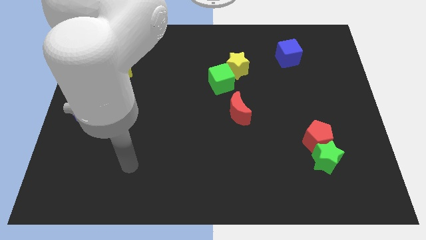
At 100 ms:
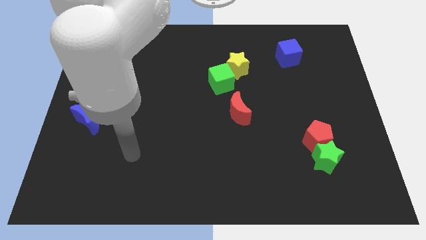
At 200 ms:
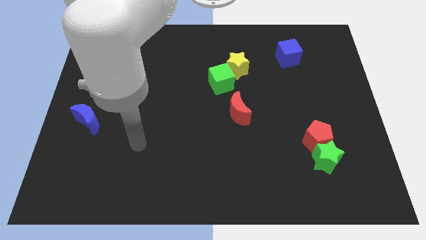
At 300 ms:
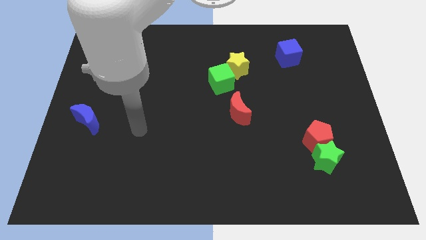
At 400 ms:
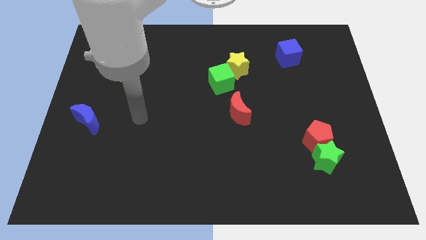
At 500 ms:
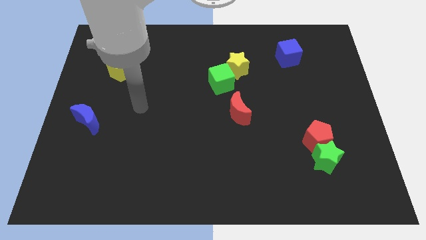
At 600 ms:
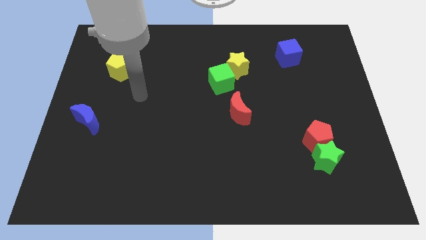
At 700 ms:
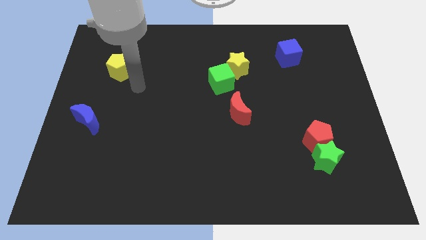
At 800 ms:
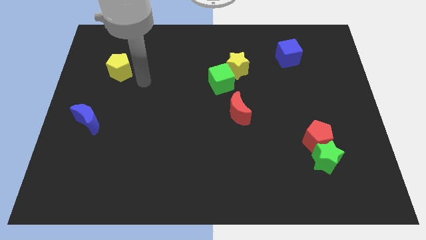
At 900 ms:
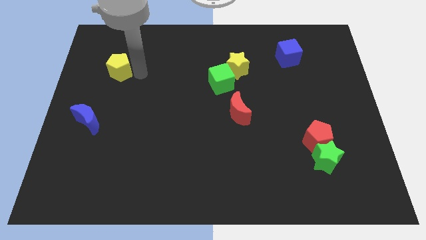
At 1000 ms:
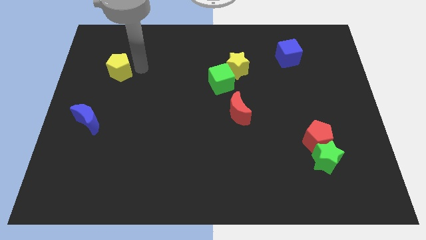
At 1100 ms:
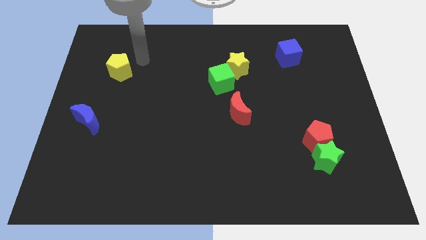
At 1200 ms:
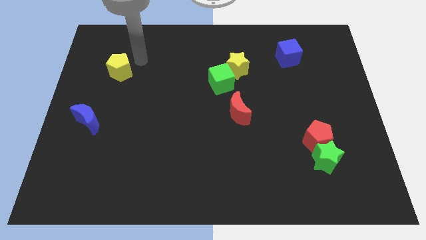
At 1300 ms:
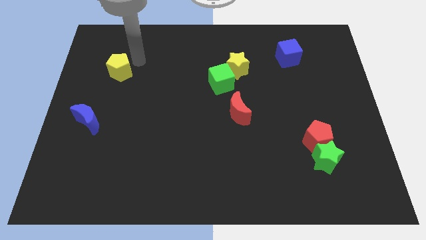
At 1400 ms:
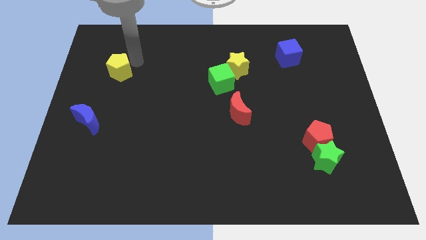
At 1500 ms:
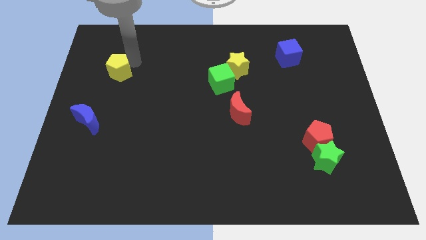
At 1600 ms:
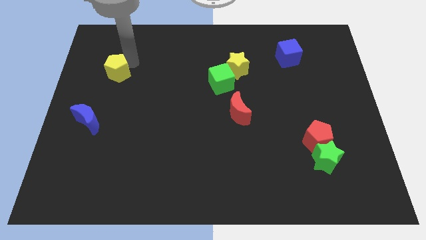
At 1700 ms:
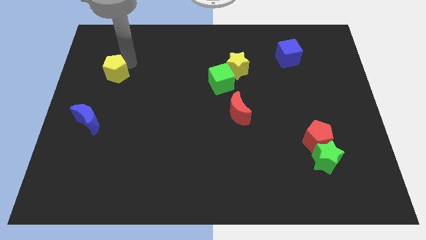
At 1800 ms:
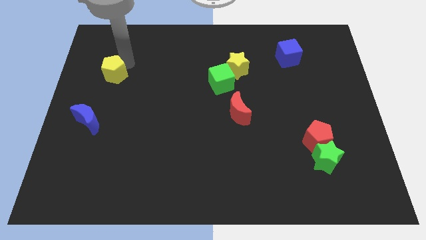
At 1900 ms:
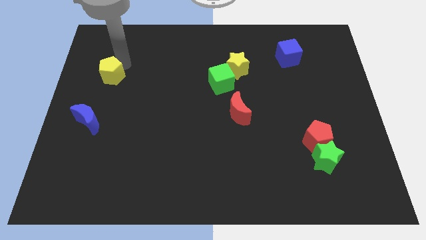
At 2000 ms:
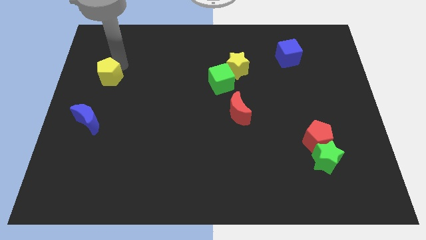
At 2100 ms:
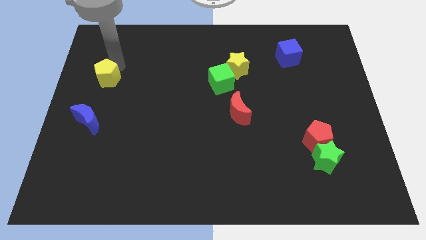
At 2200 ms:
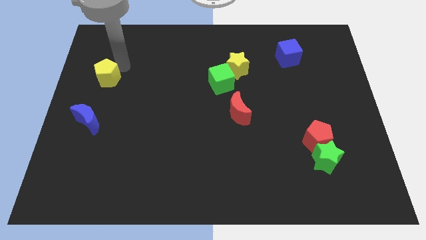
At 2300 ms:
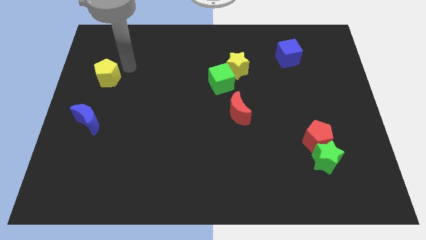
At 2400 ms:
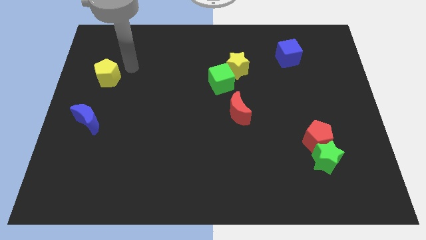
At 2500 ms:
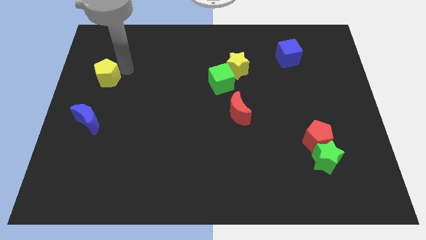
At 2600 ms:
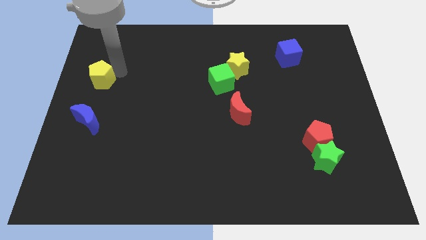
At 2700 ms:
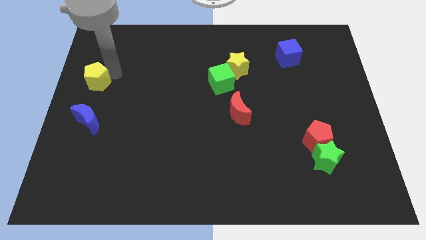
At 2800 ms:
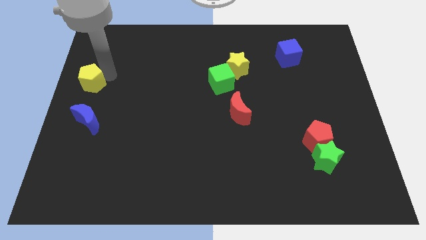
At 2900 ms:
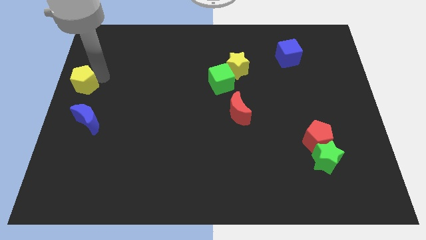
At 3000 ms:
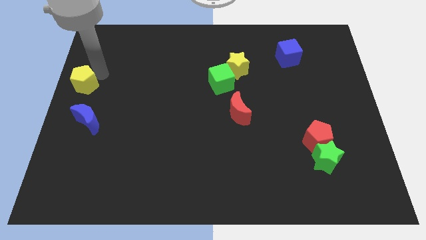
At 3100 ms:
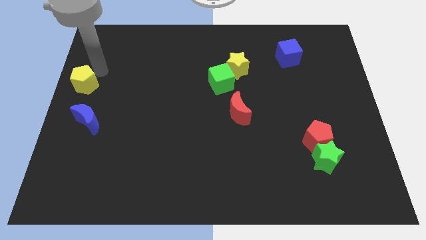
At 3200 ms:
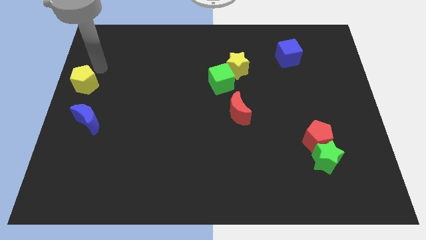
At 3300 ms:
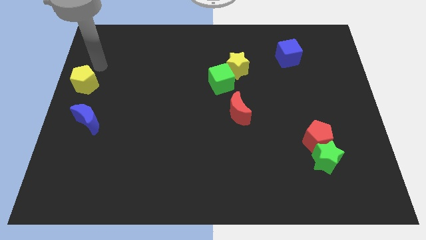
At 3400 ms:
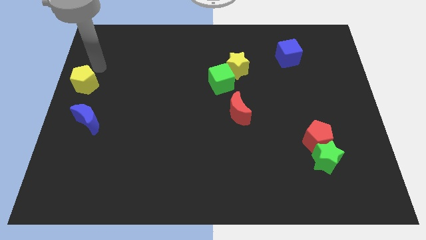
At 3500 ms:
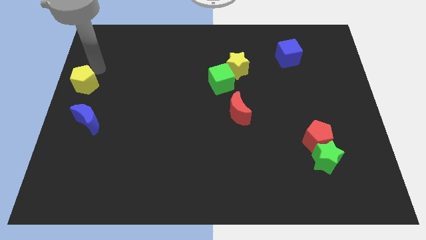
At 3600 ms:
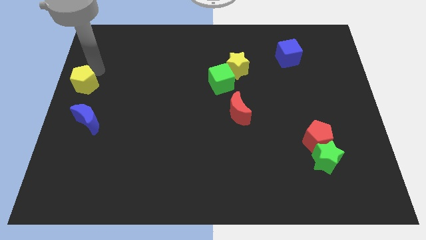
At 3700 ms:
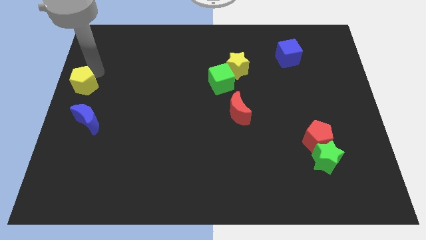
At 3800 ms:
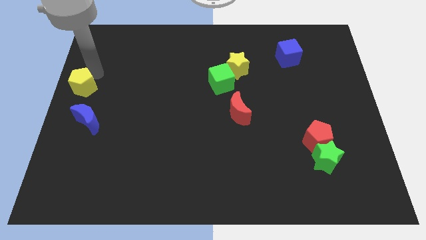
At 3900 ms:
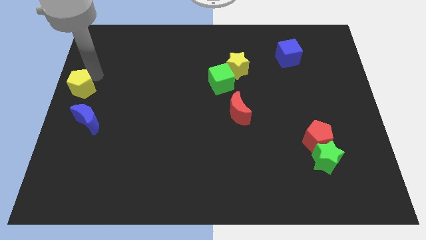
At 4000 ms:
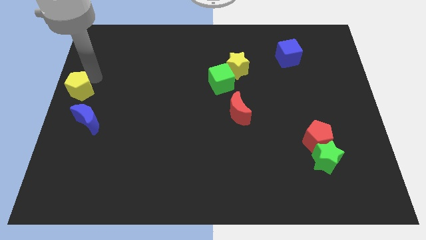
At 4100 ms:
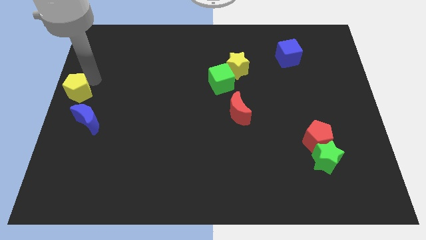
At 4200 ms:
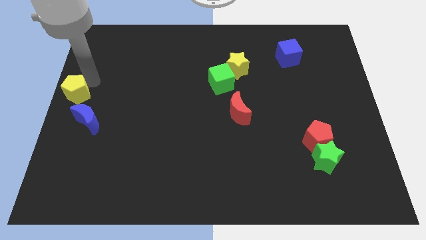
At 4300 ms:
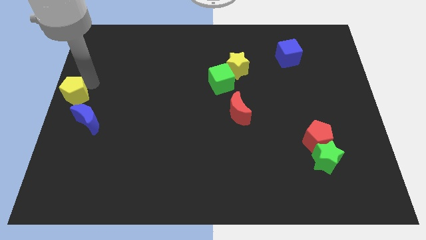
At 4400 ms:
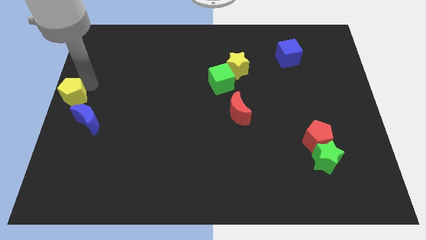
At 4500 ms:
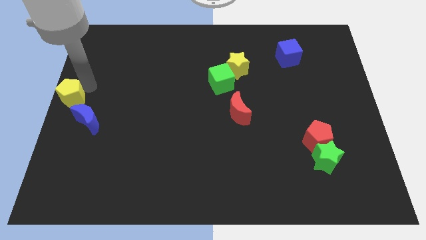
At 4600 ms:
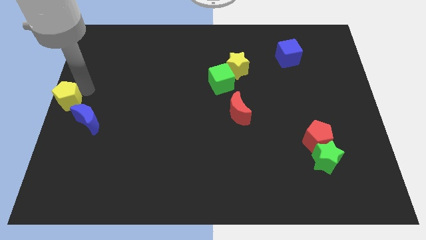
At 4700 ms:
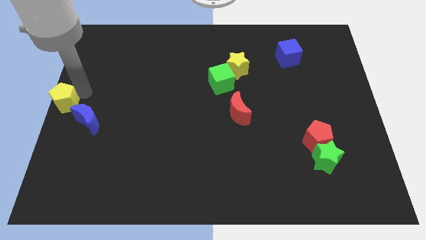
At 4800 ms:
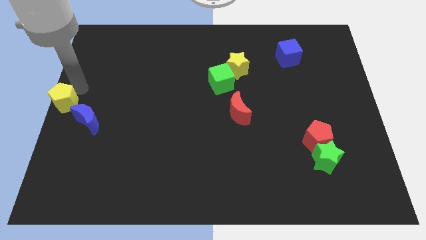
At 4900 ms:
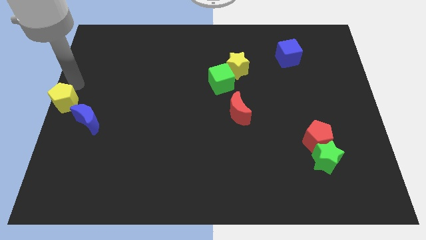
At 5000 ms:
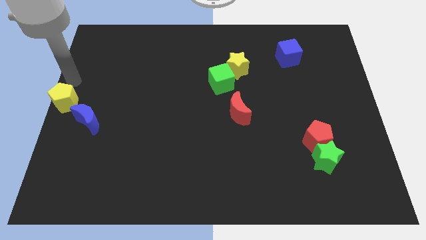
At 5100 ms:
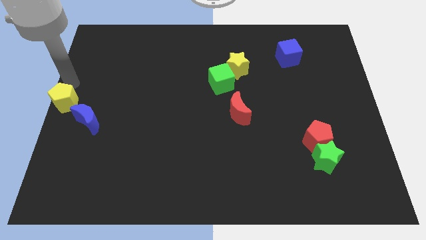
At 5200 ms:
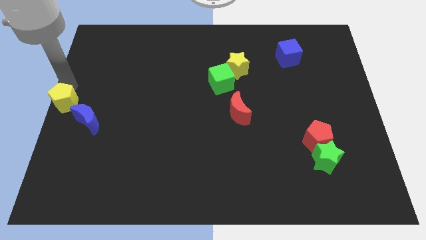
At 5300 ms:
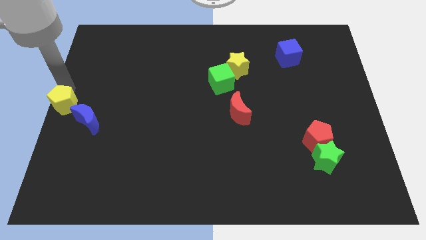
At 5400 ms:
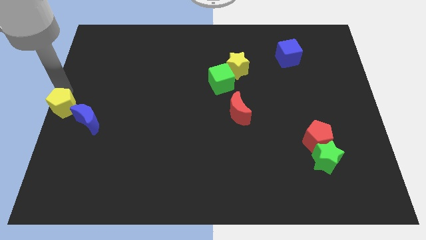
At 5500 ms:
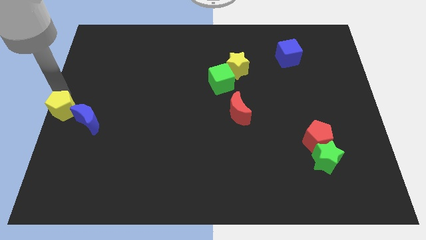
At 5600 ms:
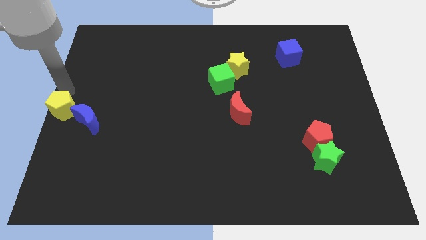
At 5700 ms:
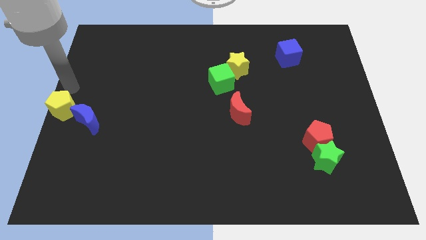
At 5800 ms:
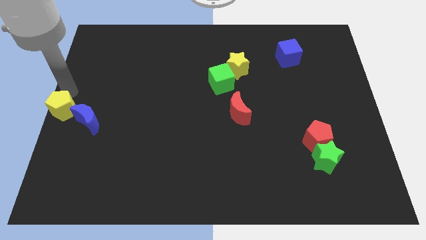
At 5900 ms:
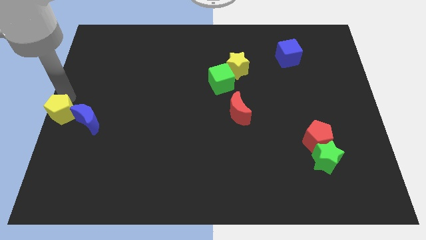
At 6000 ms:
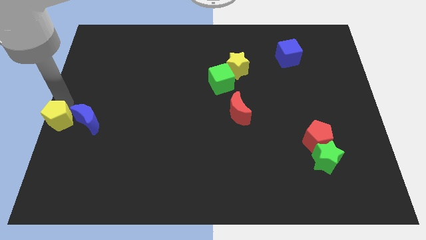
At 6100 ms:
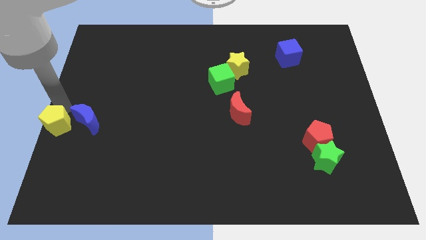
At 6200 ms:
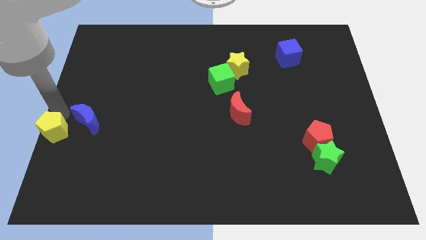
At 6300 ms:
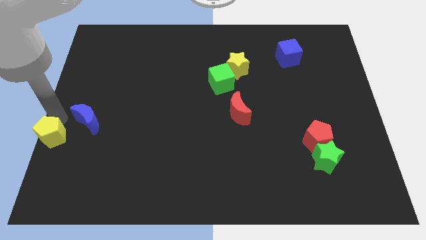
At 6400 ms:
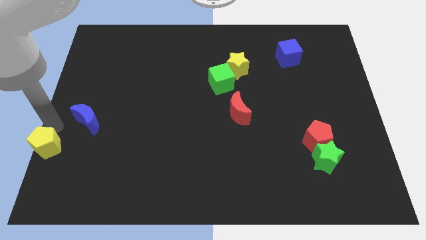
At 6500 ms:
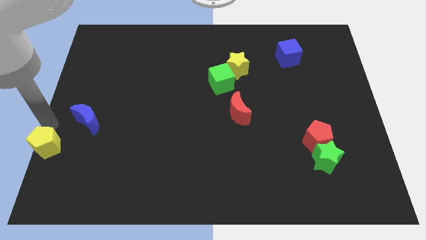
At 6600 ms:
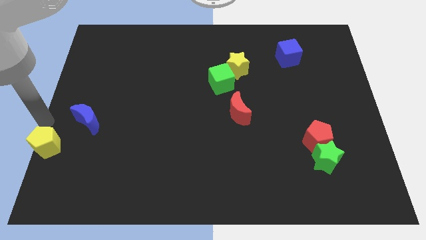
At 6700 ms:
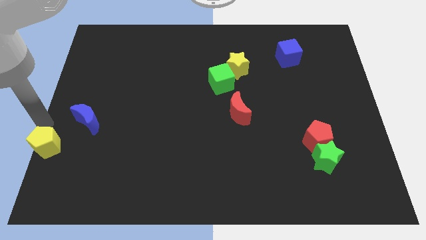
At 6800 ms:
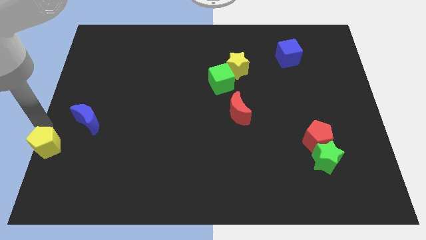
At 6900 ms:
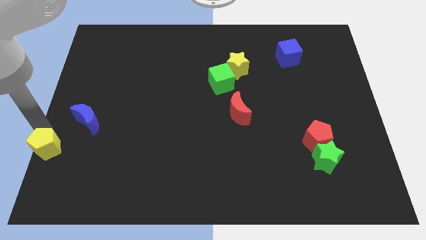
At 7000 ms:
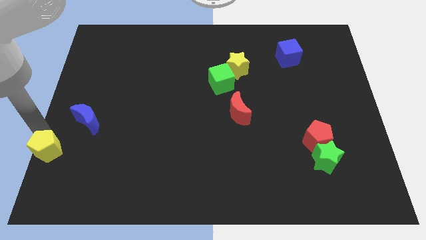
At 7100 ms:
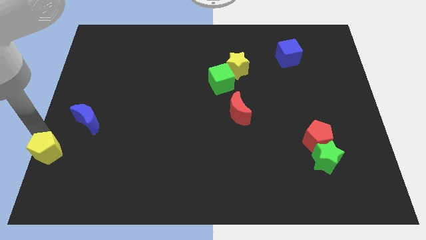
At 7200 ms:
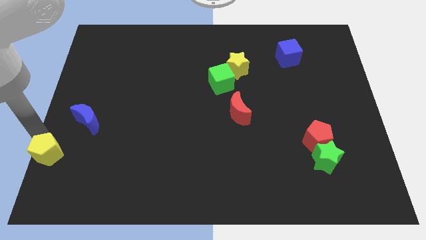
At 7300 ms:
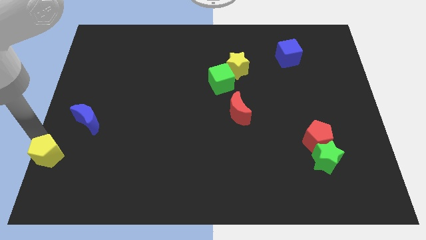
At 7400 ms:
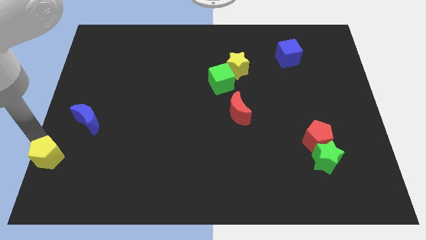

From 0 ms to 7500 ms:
push the yellow pentagon to the bottom left of the board

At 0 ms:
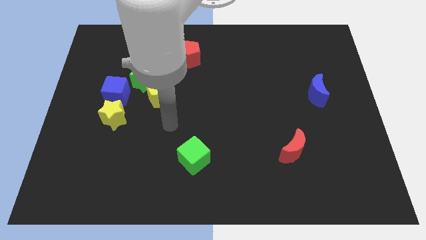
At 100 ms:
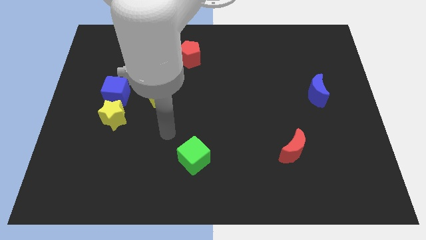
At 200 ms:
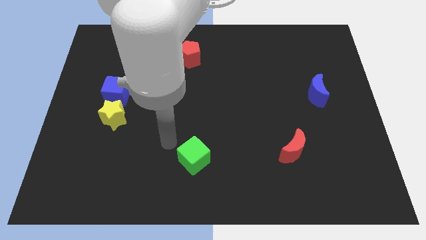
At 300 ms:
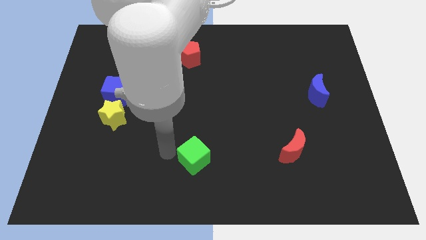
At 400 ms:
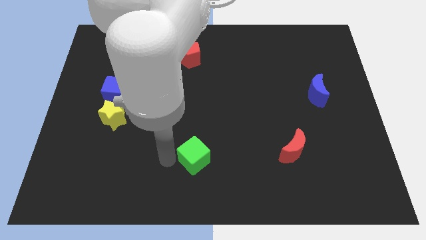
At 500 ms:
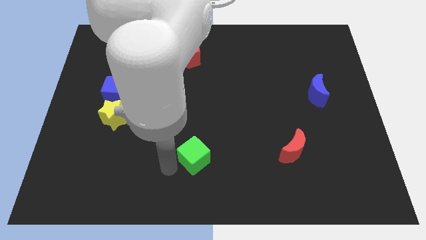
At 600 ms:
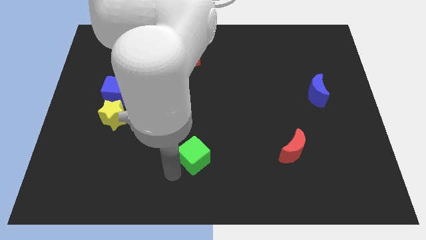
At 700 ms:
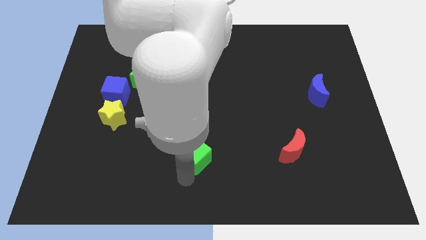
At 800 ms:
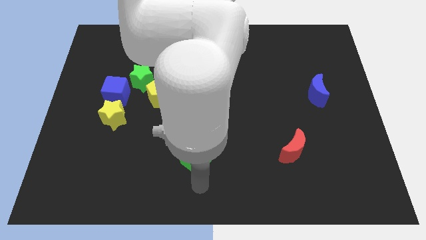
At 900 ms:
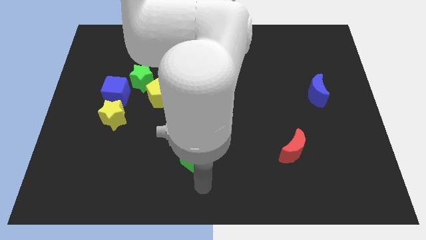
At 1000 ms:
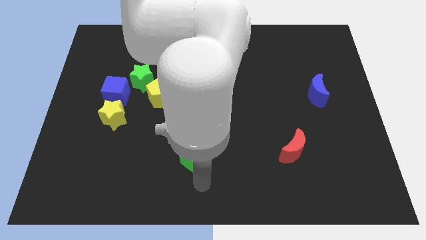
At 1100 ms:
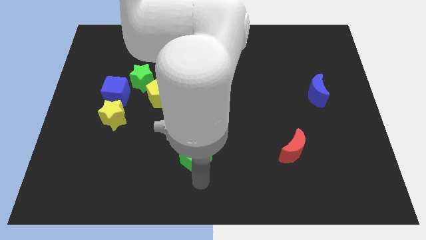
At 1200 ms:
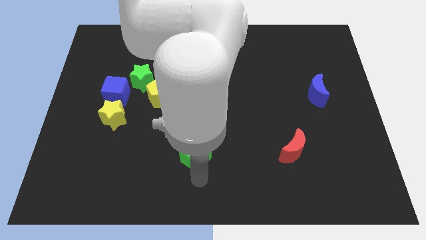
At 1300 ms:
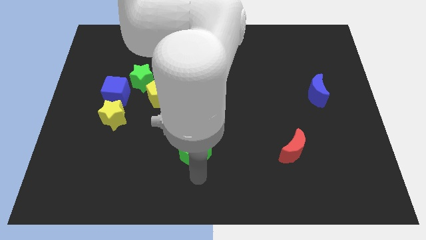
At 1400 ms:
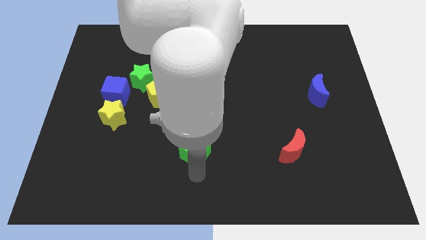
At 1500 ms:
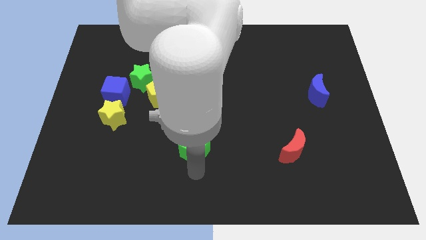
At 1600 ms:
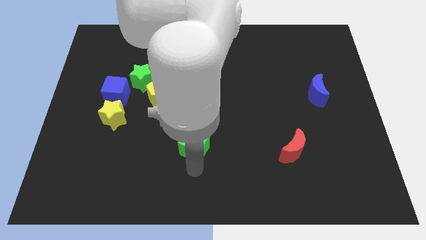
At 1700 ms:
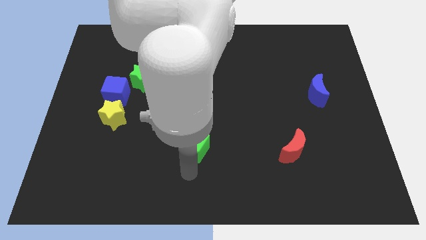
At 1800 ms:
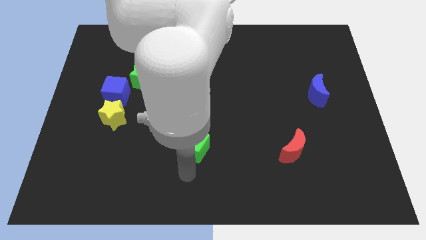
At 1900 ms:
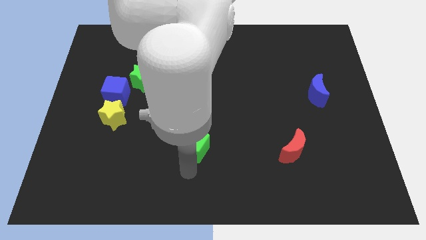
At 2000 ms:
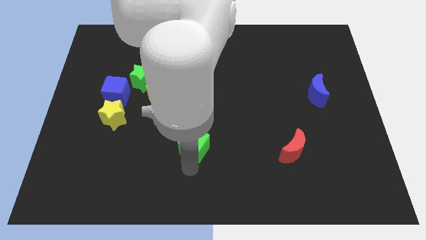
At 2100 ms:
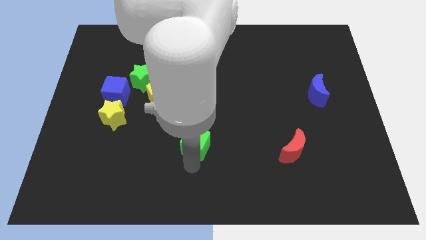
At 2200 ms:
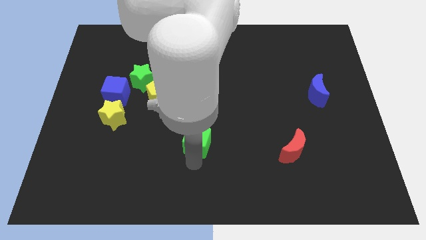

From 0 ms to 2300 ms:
put the green cube to the middle
